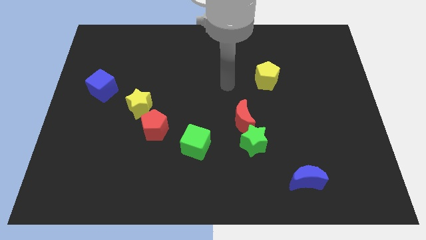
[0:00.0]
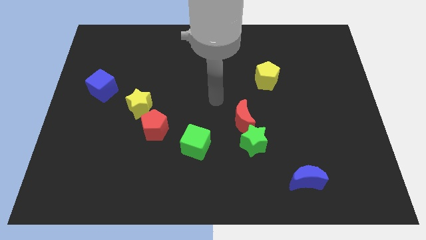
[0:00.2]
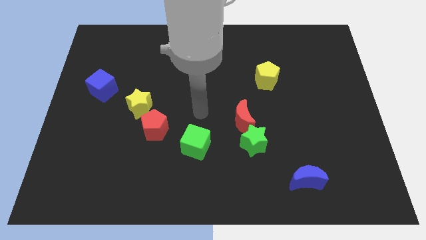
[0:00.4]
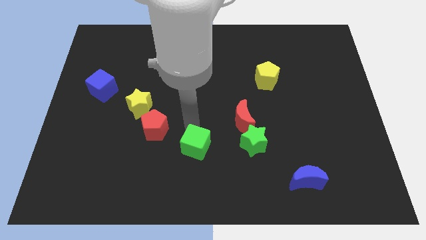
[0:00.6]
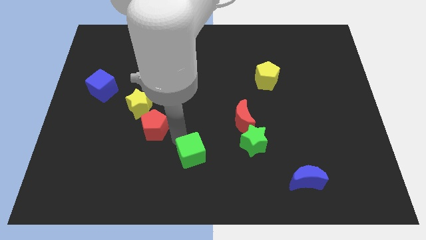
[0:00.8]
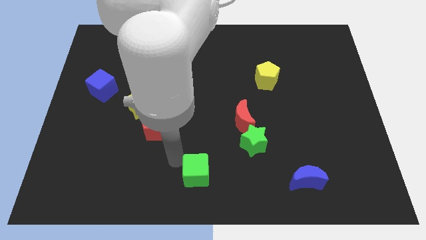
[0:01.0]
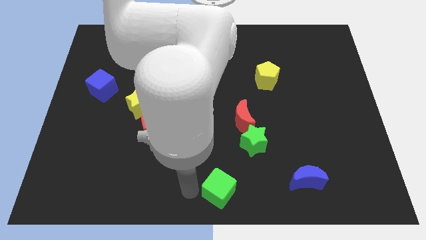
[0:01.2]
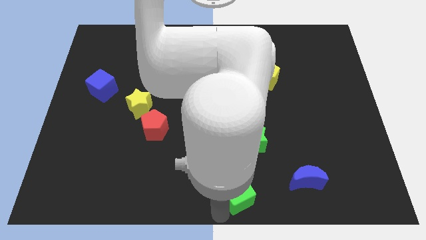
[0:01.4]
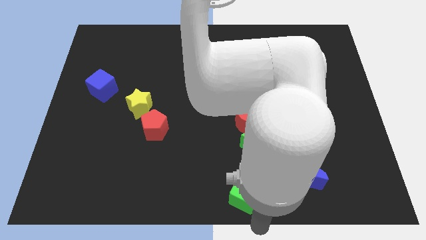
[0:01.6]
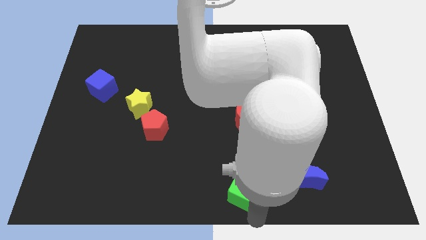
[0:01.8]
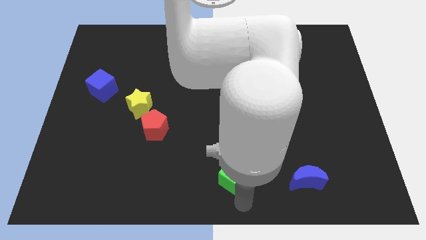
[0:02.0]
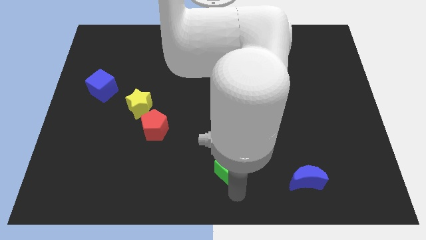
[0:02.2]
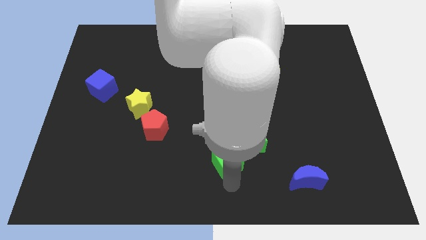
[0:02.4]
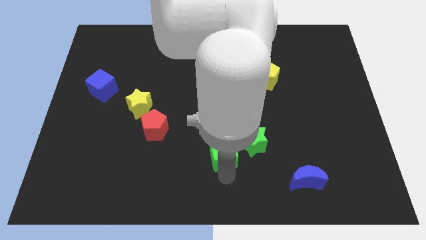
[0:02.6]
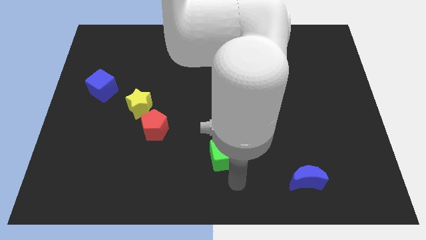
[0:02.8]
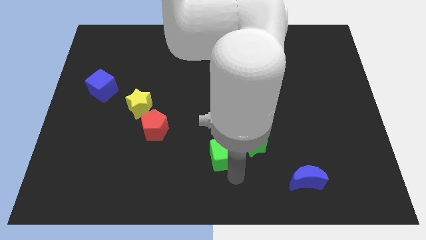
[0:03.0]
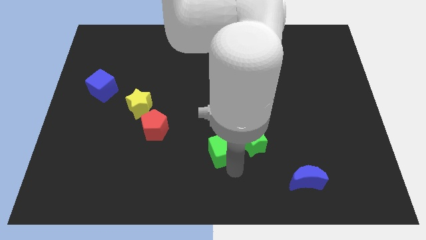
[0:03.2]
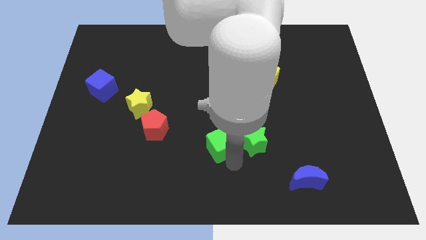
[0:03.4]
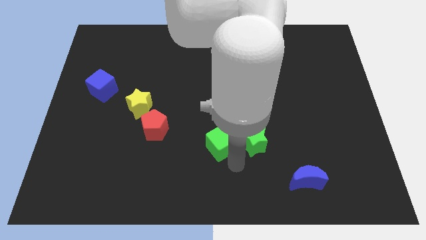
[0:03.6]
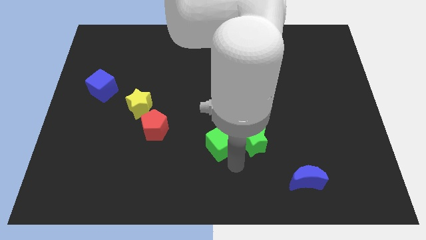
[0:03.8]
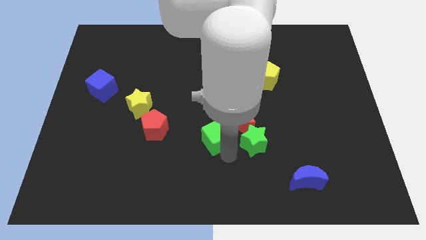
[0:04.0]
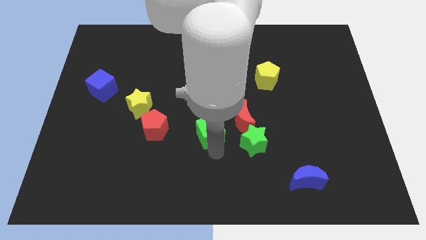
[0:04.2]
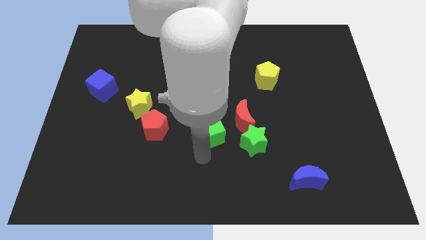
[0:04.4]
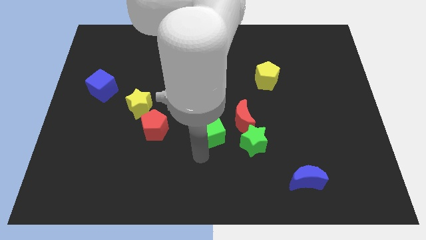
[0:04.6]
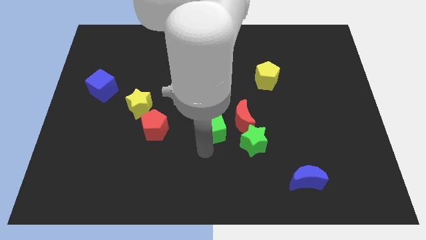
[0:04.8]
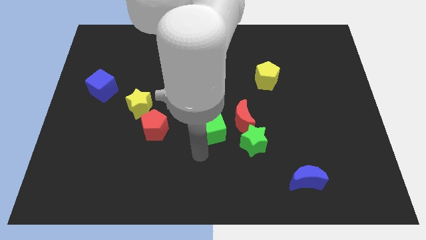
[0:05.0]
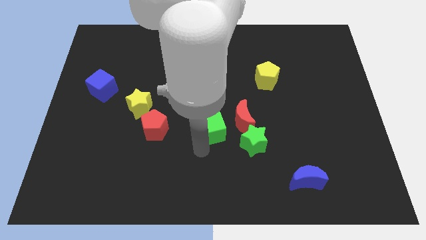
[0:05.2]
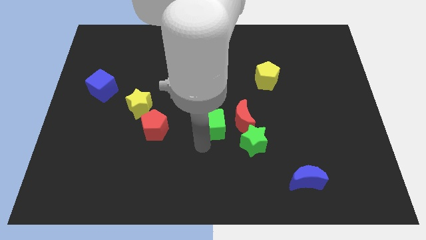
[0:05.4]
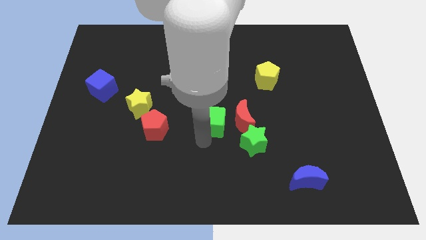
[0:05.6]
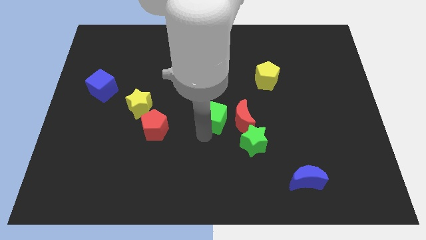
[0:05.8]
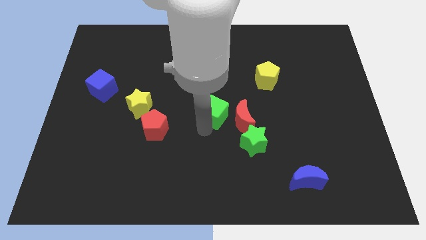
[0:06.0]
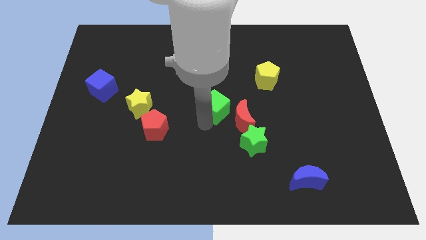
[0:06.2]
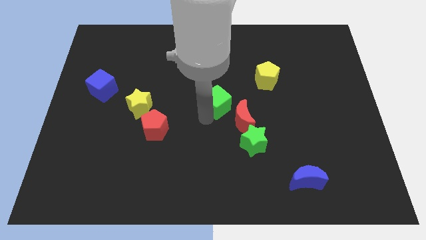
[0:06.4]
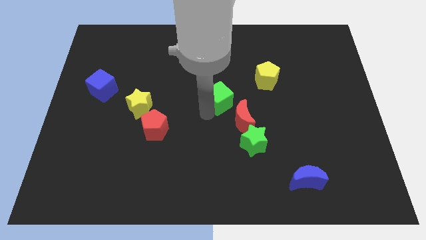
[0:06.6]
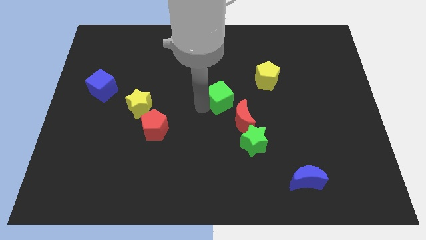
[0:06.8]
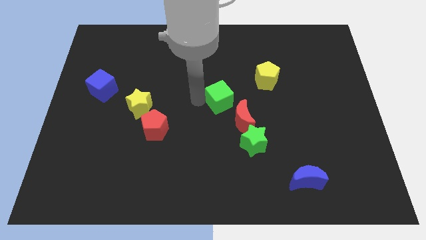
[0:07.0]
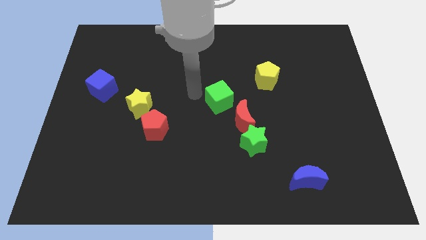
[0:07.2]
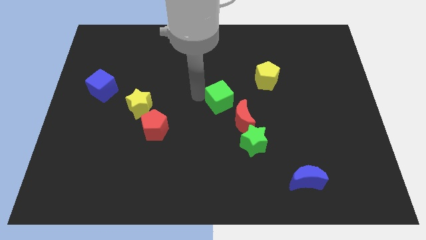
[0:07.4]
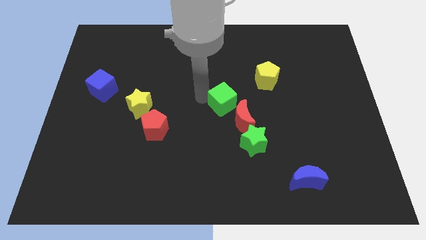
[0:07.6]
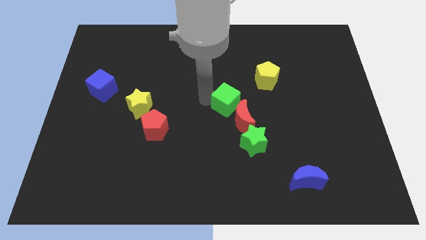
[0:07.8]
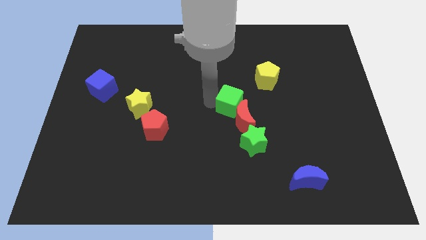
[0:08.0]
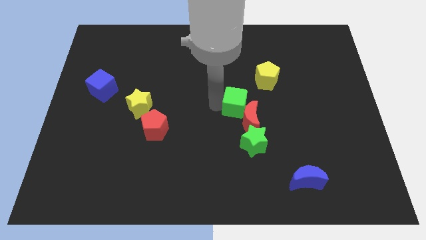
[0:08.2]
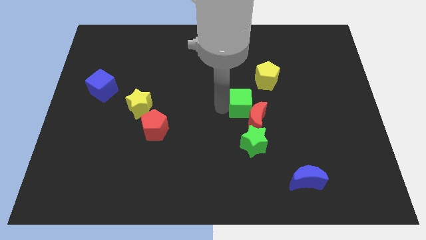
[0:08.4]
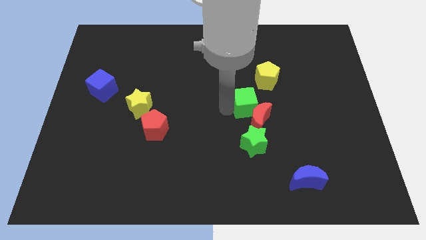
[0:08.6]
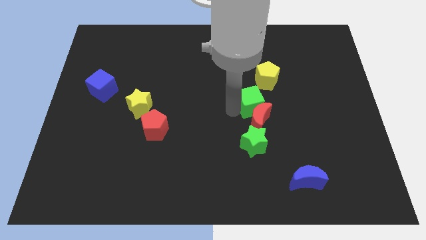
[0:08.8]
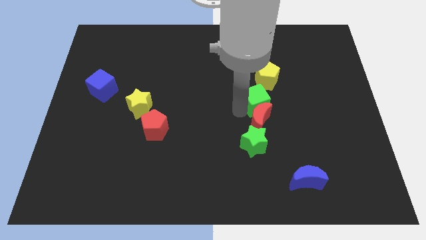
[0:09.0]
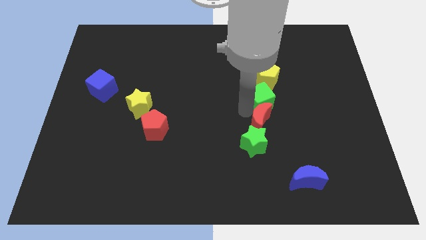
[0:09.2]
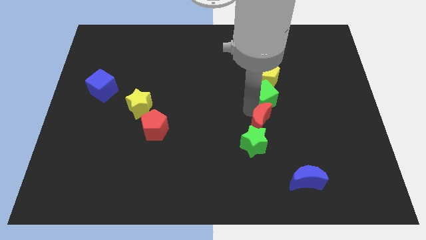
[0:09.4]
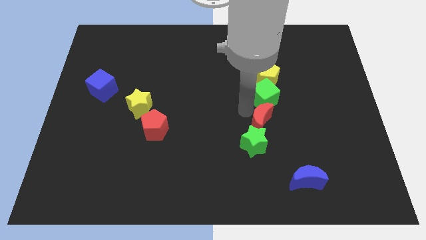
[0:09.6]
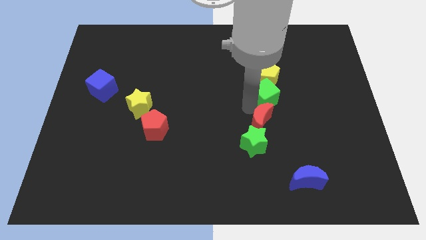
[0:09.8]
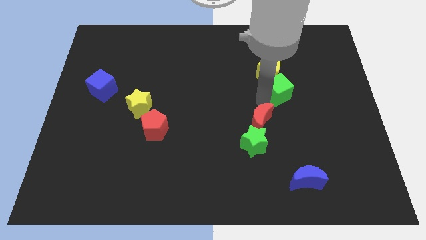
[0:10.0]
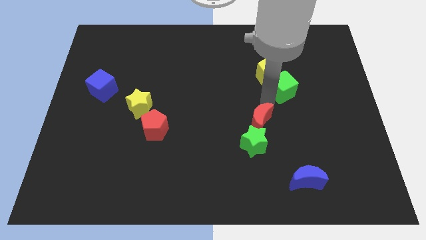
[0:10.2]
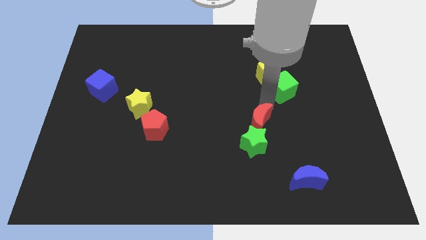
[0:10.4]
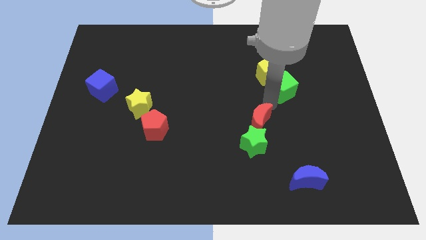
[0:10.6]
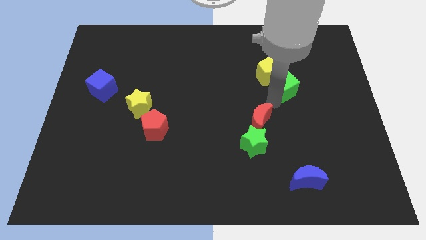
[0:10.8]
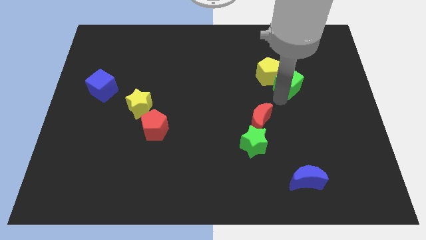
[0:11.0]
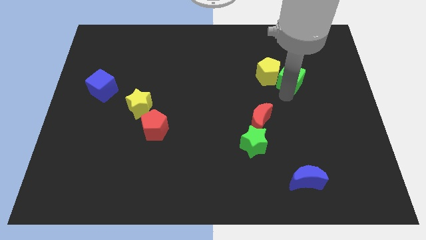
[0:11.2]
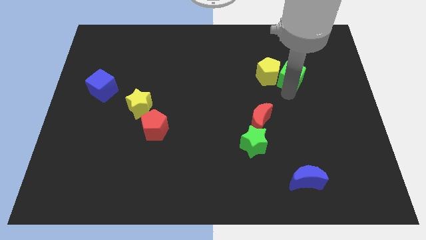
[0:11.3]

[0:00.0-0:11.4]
slide the green cube diagonally up and to the right of the yellow pentagon

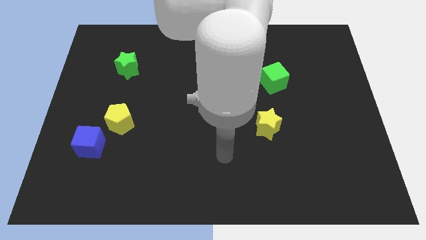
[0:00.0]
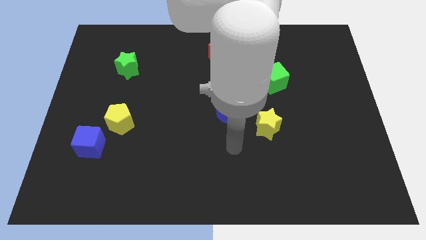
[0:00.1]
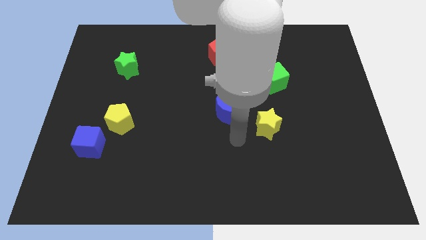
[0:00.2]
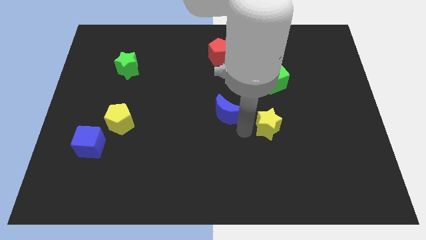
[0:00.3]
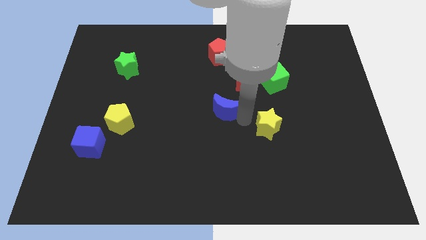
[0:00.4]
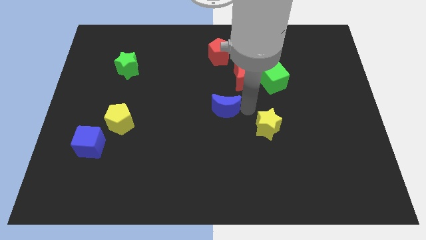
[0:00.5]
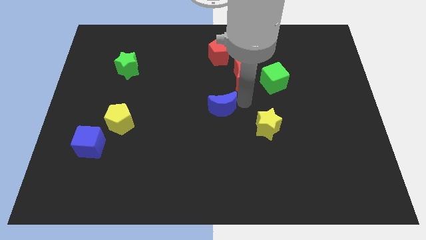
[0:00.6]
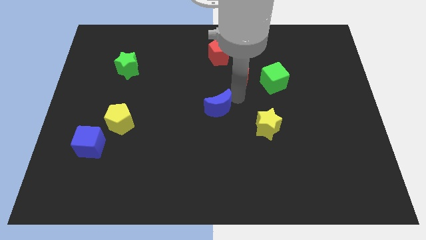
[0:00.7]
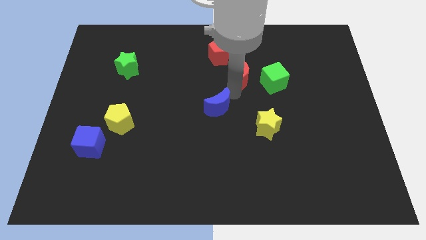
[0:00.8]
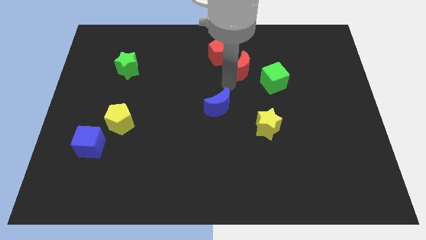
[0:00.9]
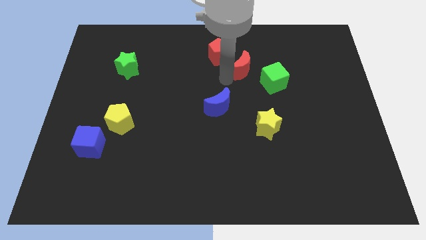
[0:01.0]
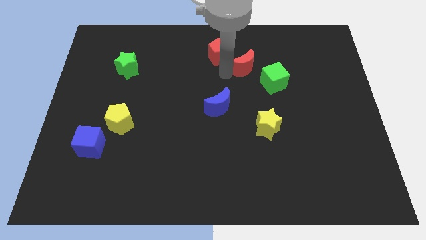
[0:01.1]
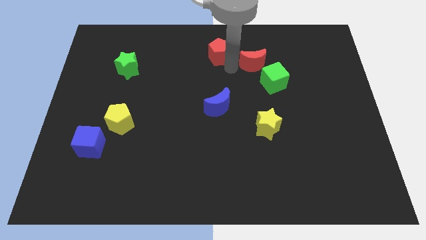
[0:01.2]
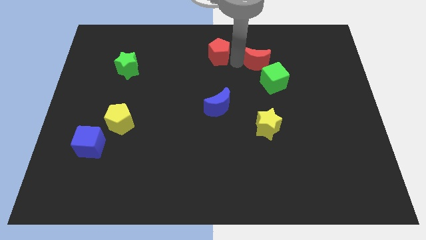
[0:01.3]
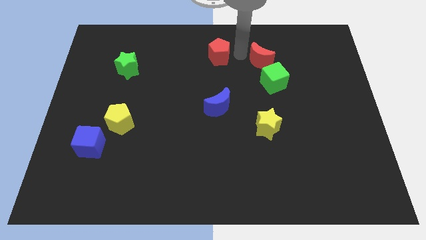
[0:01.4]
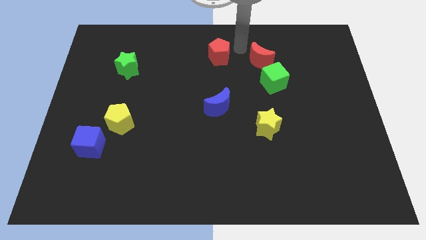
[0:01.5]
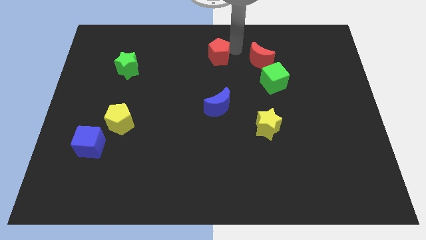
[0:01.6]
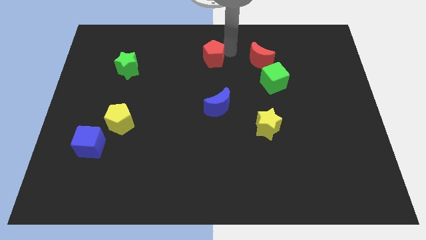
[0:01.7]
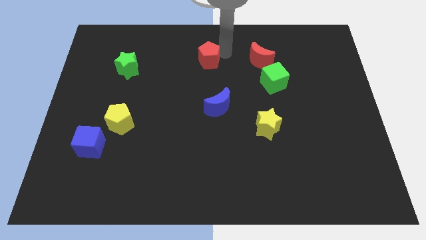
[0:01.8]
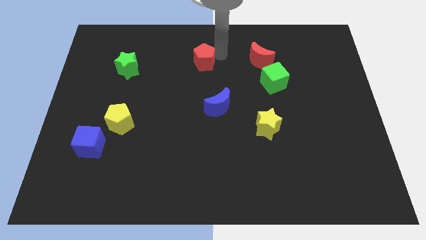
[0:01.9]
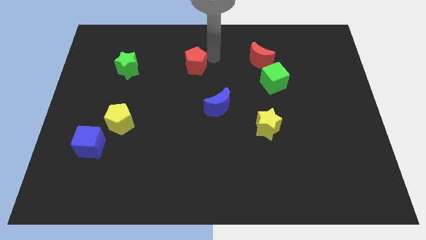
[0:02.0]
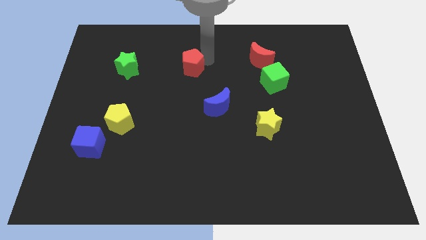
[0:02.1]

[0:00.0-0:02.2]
move the red pentagon right of the green star

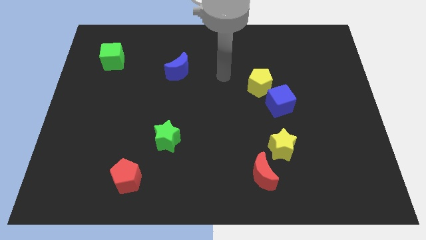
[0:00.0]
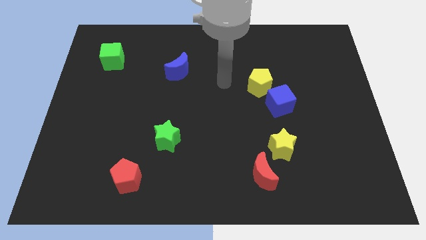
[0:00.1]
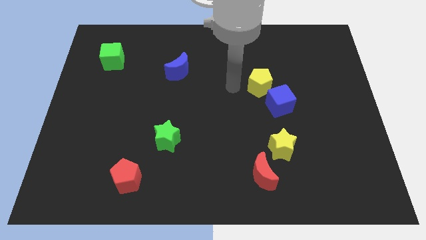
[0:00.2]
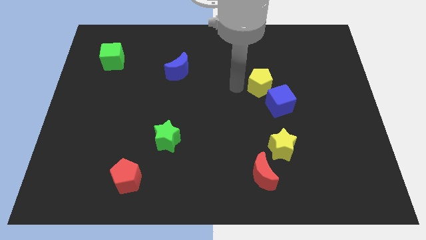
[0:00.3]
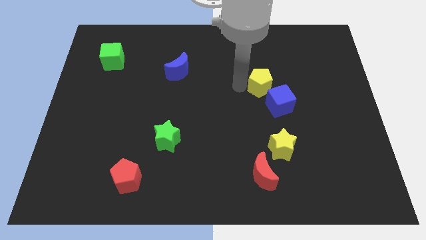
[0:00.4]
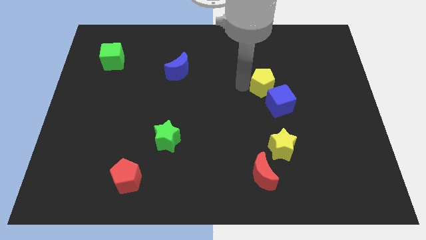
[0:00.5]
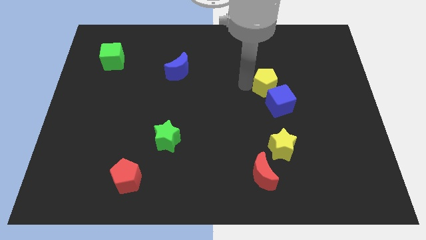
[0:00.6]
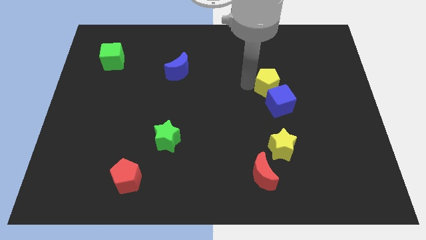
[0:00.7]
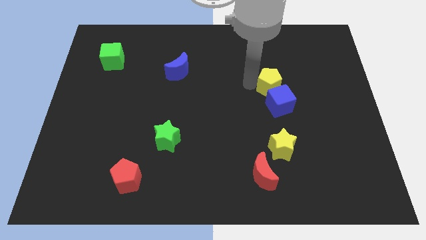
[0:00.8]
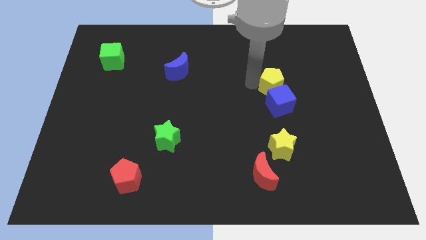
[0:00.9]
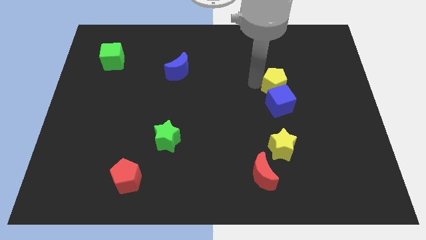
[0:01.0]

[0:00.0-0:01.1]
slide the yellow pentagon diagonally up and to the right of the blue cube
